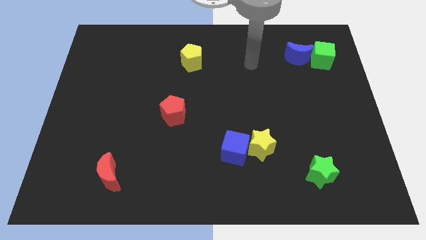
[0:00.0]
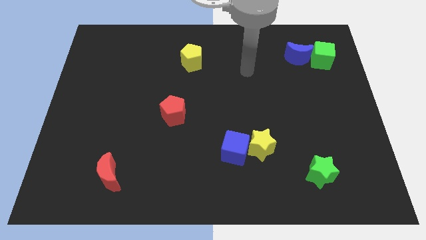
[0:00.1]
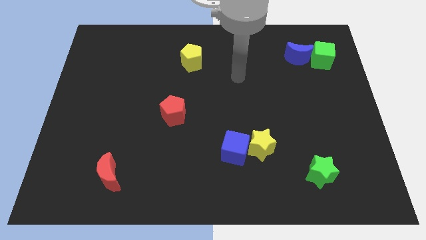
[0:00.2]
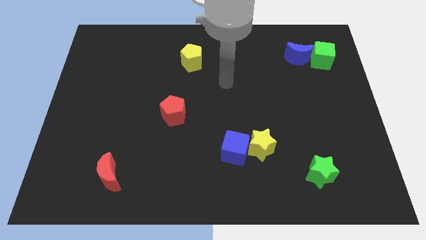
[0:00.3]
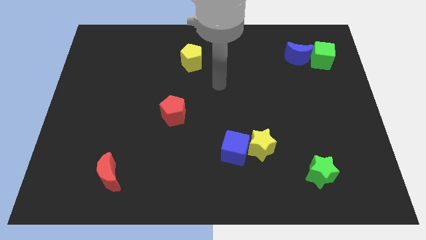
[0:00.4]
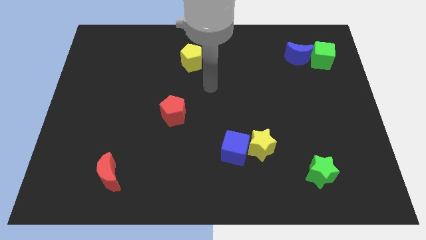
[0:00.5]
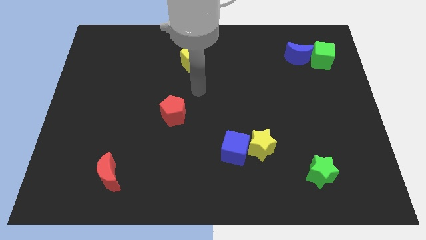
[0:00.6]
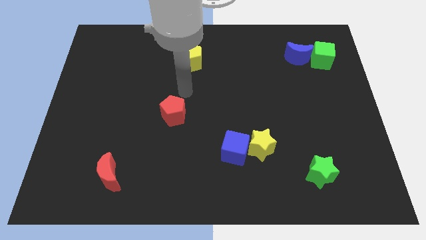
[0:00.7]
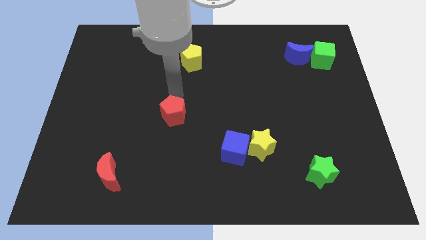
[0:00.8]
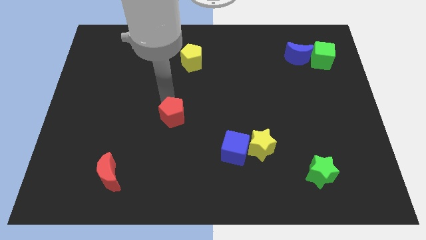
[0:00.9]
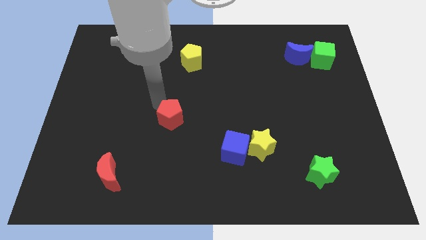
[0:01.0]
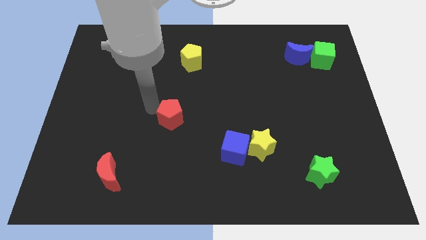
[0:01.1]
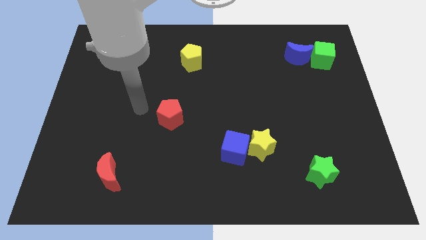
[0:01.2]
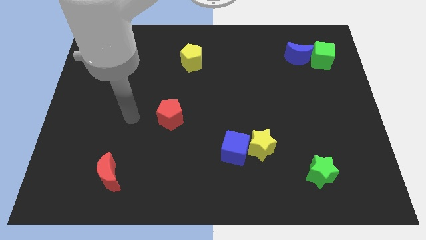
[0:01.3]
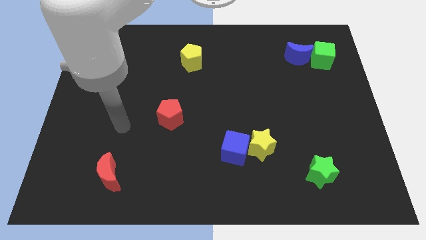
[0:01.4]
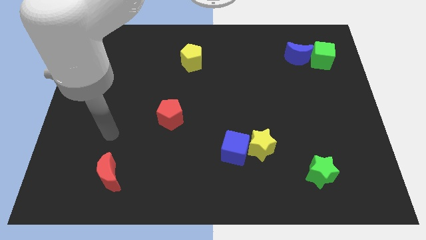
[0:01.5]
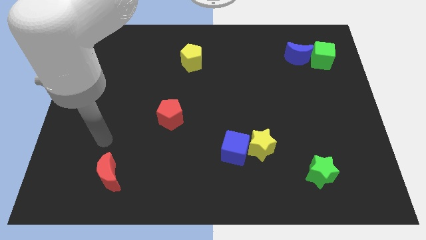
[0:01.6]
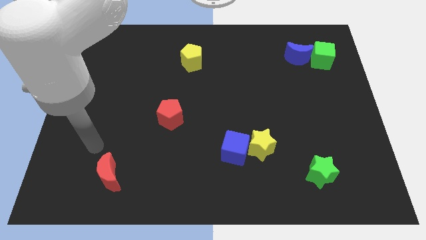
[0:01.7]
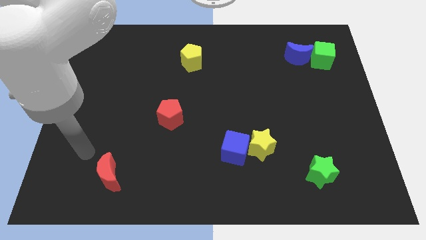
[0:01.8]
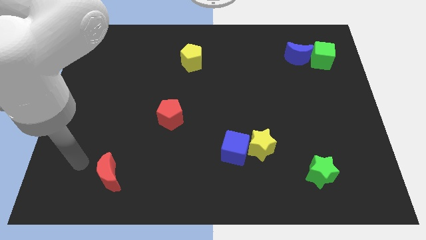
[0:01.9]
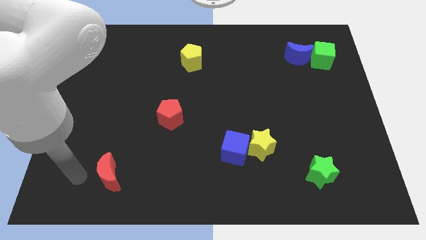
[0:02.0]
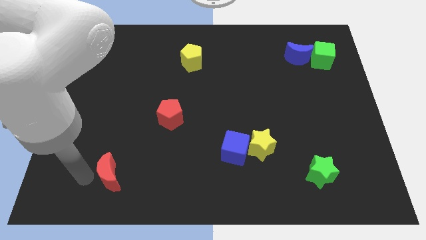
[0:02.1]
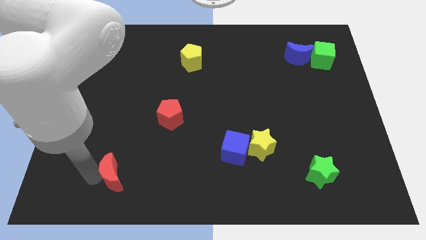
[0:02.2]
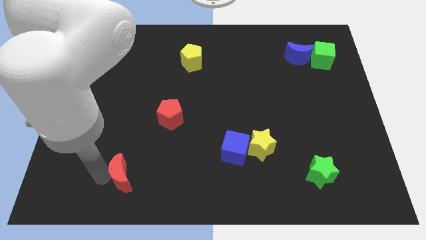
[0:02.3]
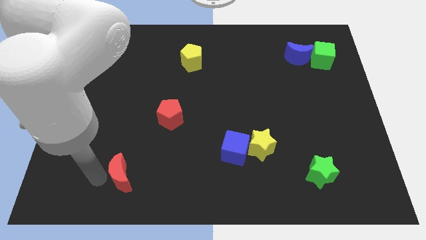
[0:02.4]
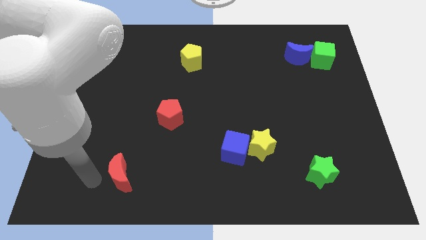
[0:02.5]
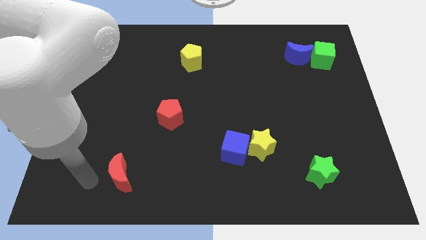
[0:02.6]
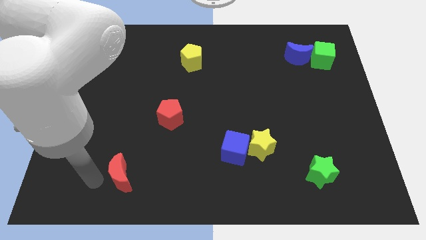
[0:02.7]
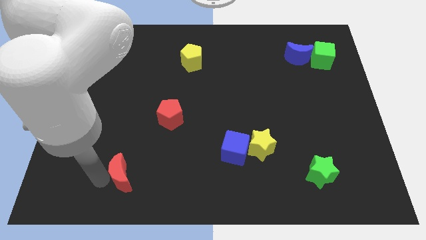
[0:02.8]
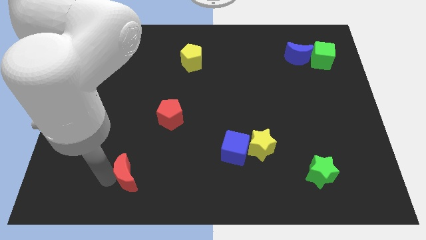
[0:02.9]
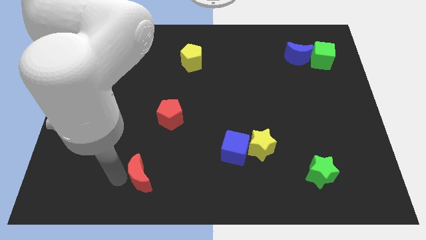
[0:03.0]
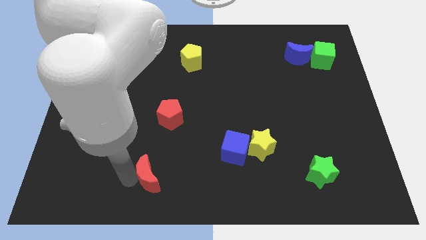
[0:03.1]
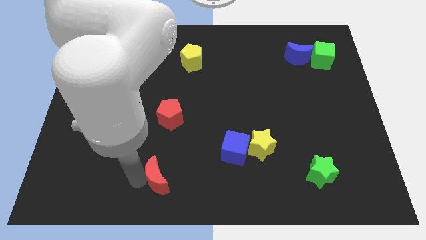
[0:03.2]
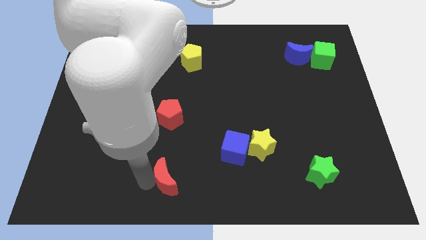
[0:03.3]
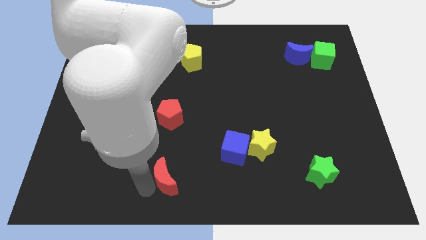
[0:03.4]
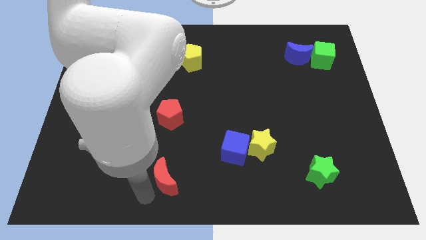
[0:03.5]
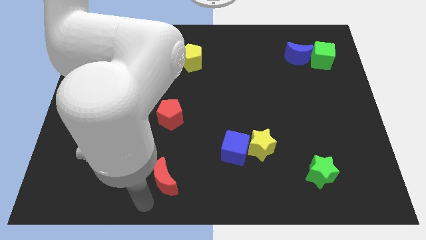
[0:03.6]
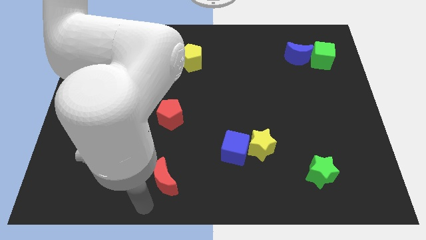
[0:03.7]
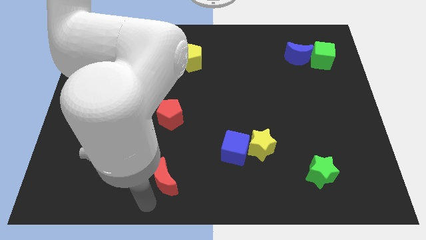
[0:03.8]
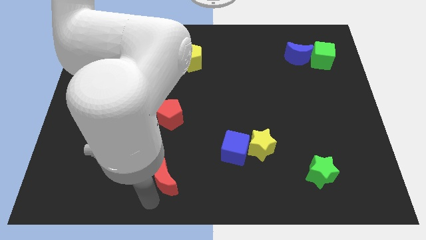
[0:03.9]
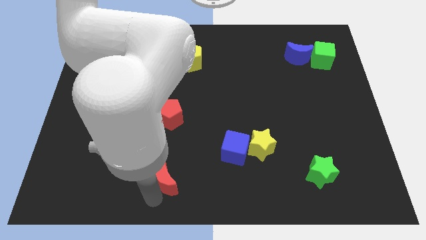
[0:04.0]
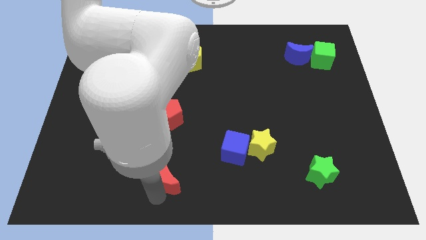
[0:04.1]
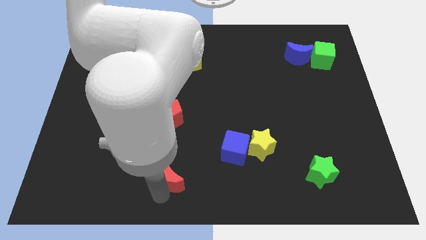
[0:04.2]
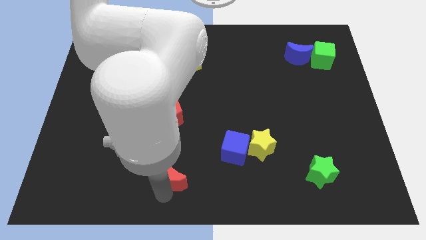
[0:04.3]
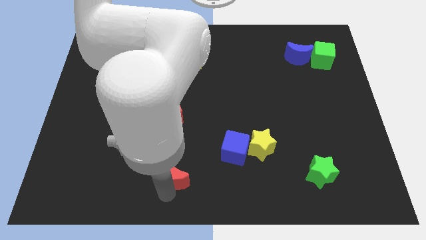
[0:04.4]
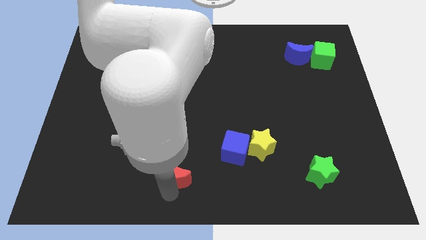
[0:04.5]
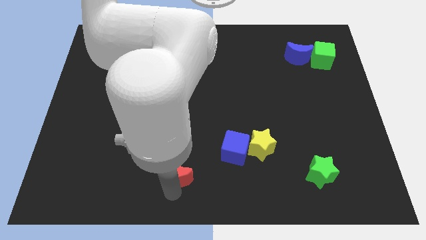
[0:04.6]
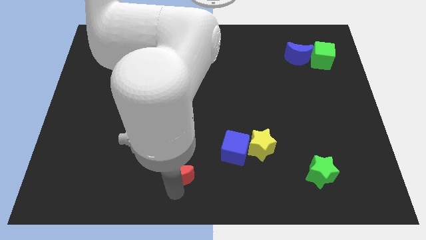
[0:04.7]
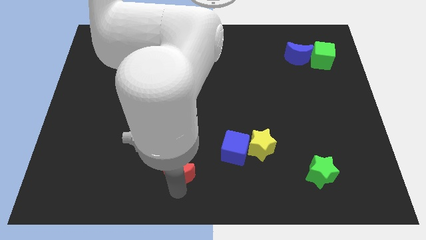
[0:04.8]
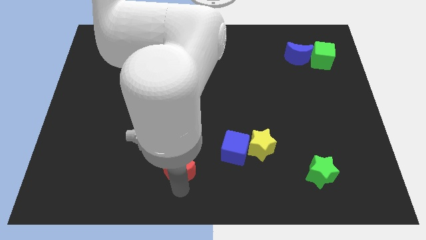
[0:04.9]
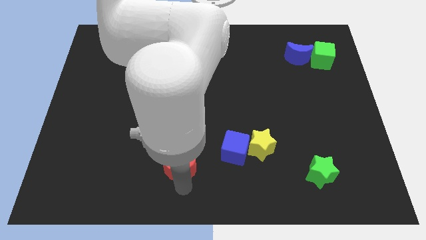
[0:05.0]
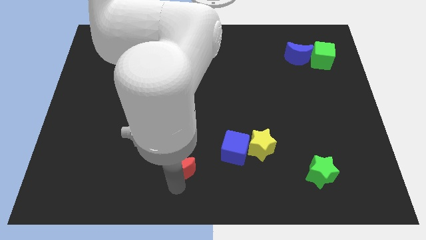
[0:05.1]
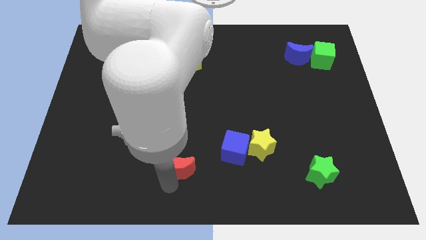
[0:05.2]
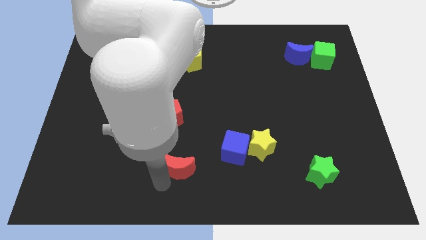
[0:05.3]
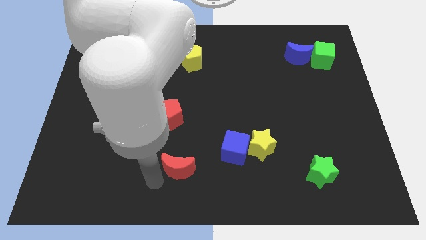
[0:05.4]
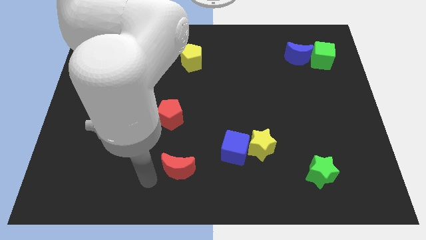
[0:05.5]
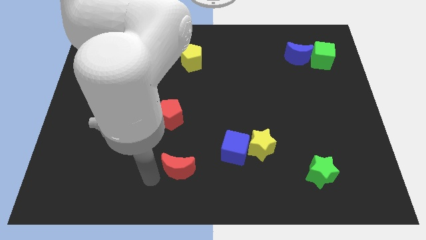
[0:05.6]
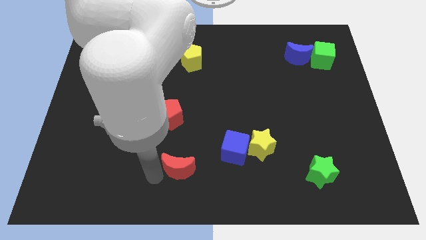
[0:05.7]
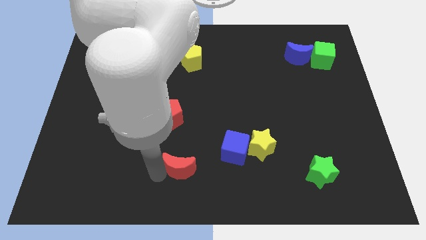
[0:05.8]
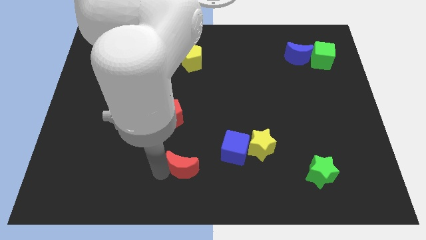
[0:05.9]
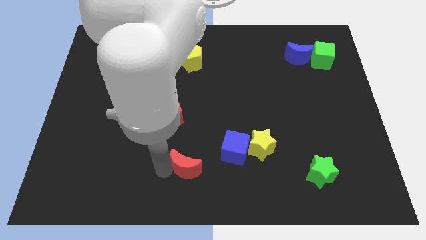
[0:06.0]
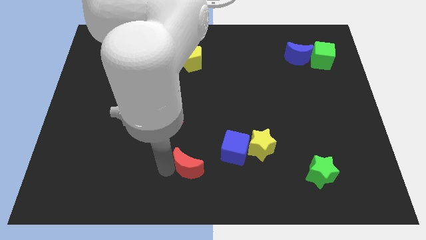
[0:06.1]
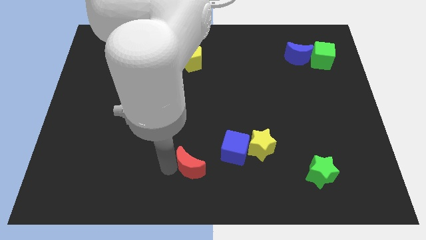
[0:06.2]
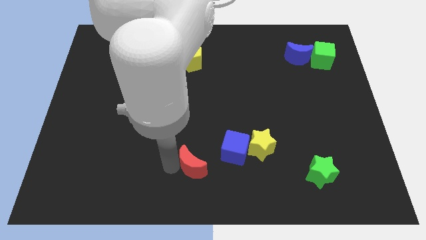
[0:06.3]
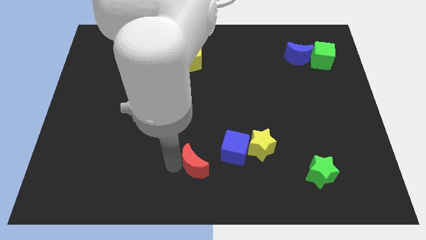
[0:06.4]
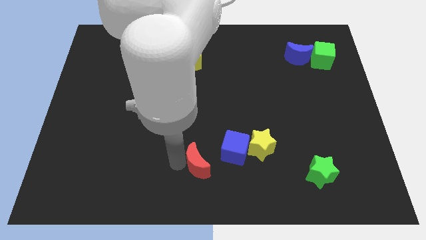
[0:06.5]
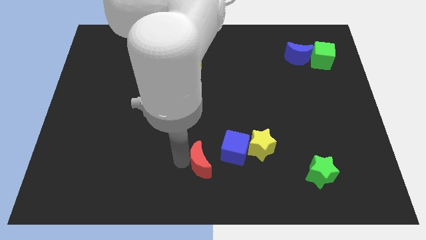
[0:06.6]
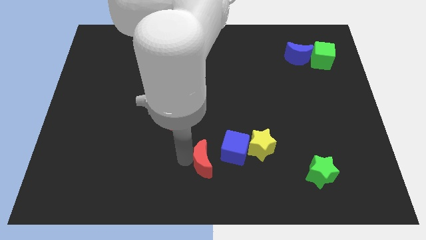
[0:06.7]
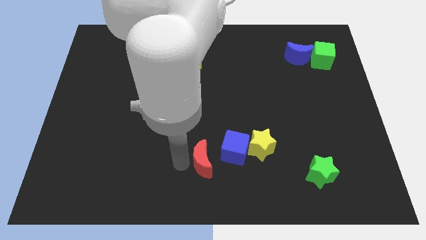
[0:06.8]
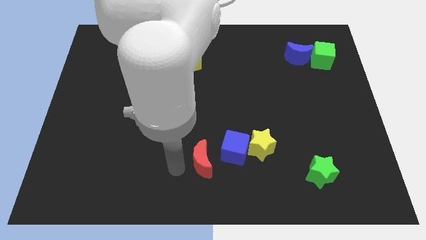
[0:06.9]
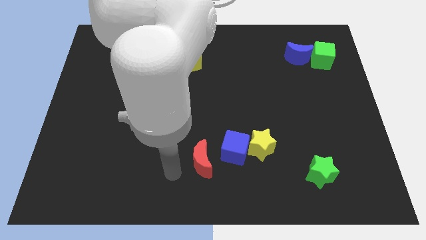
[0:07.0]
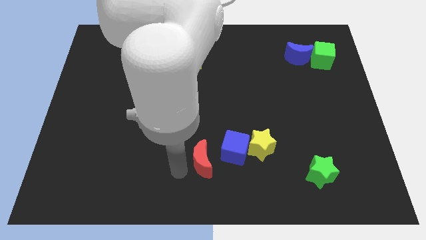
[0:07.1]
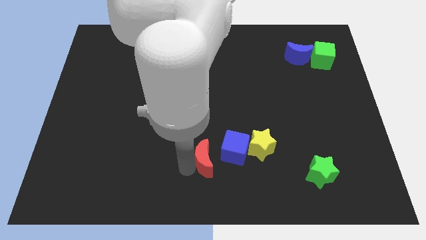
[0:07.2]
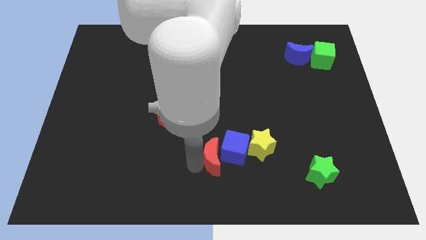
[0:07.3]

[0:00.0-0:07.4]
slide the red moon next to the blue cube
